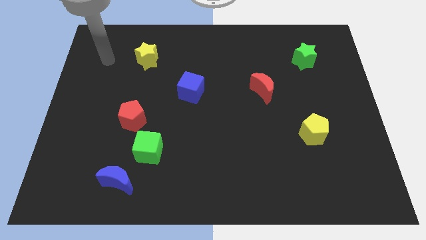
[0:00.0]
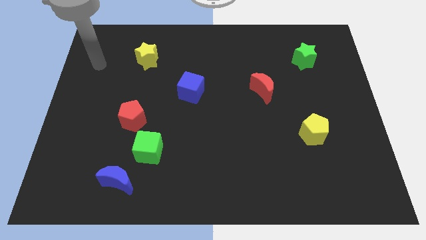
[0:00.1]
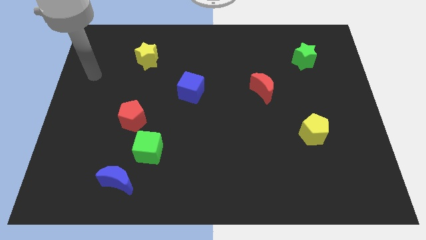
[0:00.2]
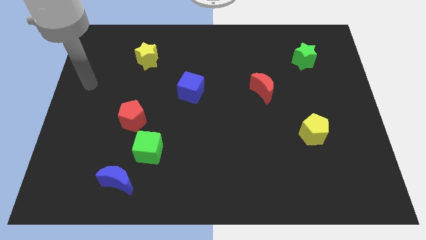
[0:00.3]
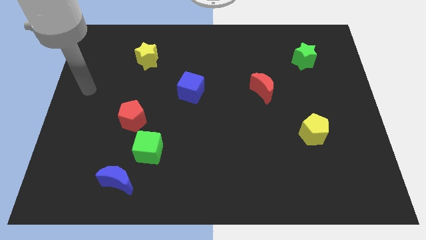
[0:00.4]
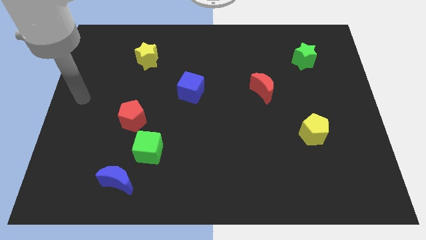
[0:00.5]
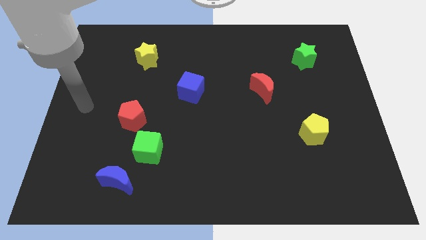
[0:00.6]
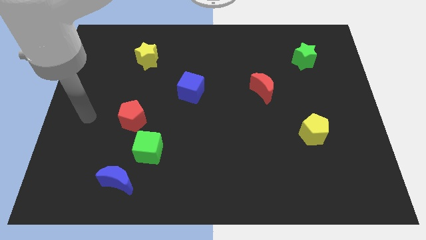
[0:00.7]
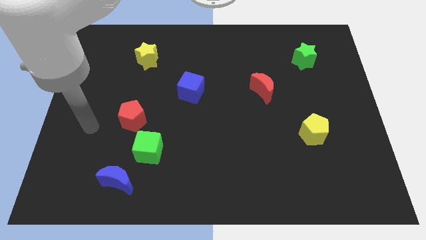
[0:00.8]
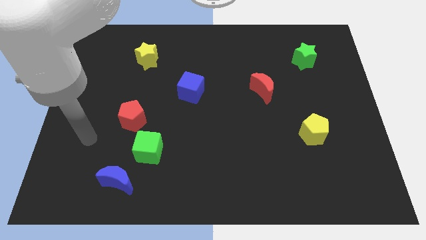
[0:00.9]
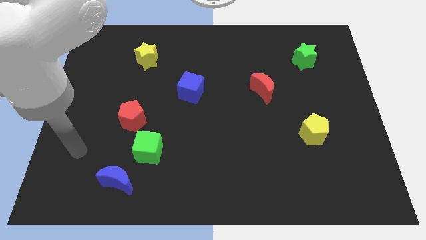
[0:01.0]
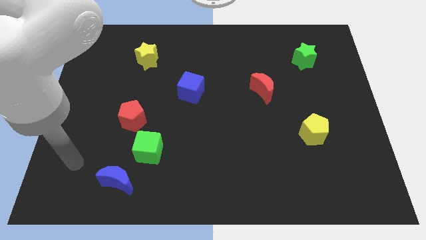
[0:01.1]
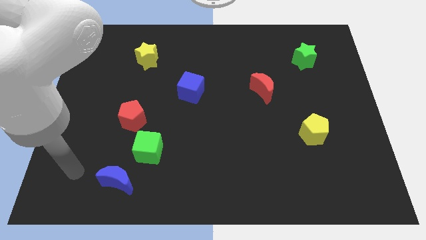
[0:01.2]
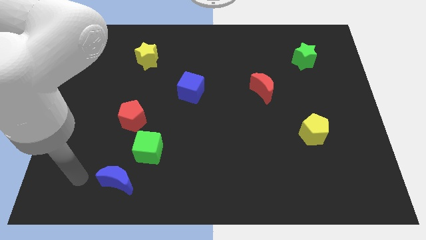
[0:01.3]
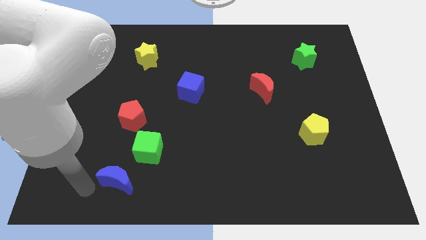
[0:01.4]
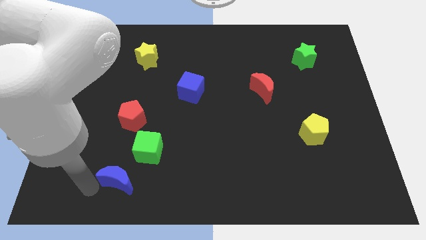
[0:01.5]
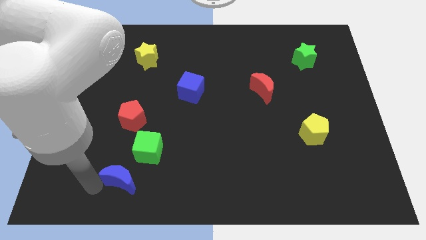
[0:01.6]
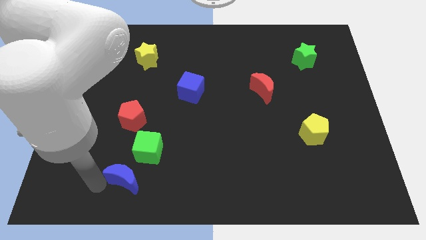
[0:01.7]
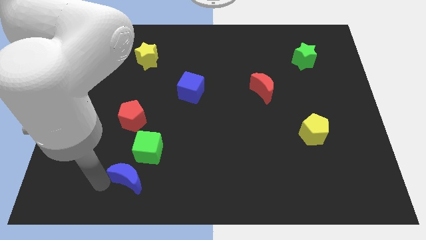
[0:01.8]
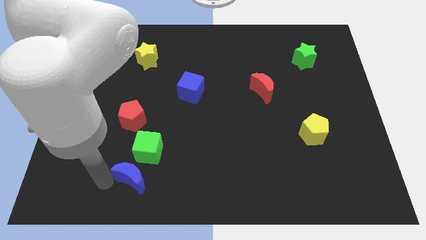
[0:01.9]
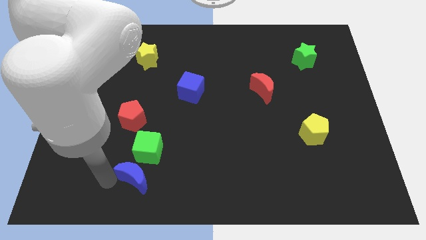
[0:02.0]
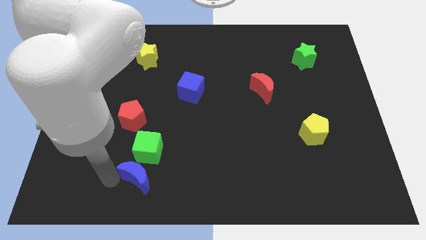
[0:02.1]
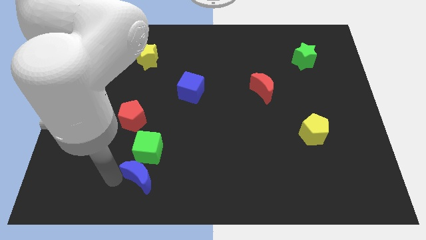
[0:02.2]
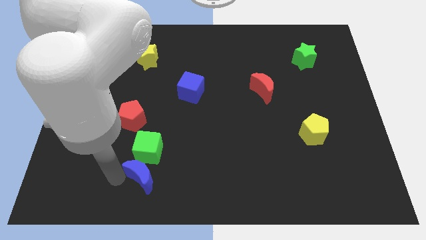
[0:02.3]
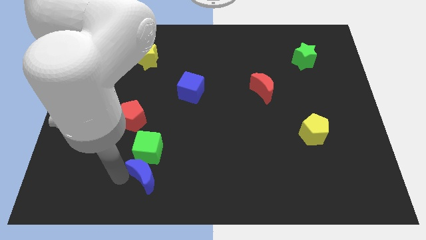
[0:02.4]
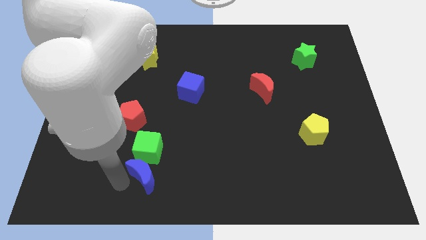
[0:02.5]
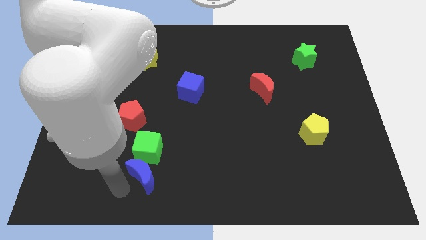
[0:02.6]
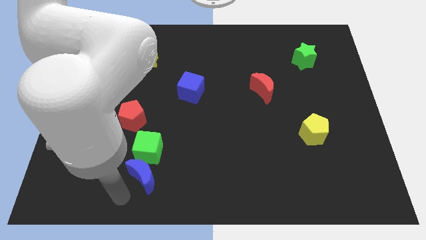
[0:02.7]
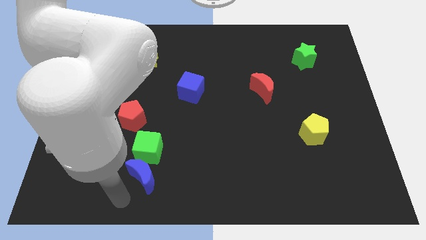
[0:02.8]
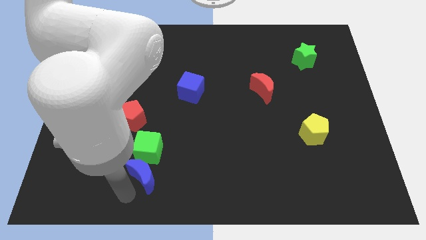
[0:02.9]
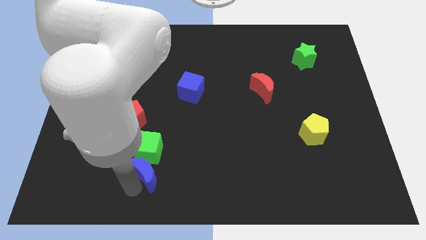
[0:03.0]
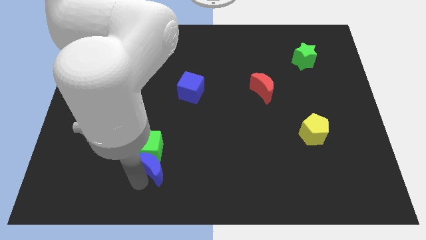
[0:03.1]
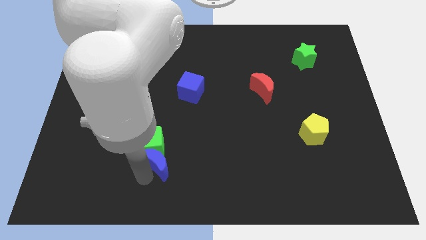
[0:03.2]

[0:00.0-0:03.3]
slide the blue moon slightly diagonally up and right

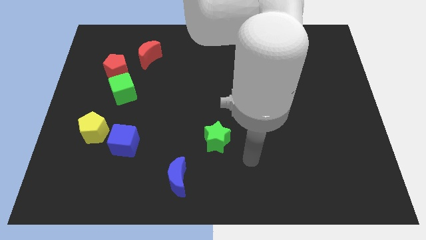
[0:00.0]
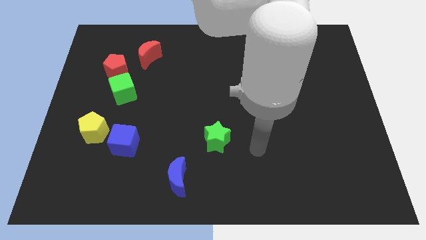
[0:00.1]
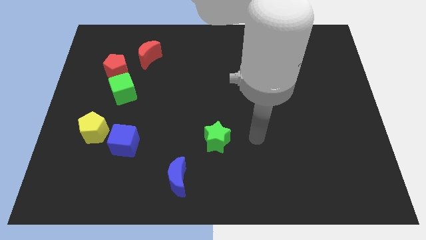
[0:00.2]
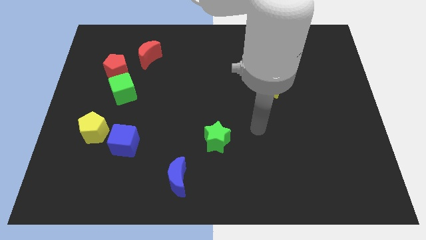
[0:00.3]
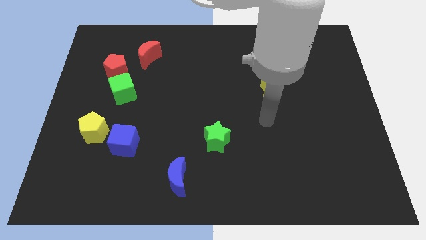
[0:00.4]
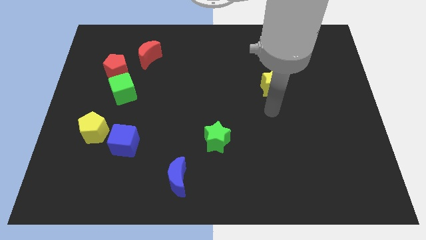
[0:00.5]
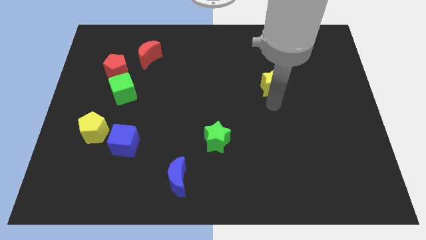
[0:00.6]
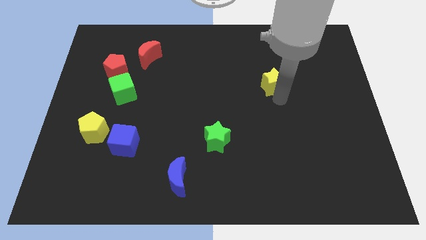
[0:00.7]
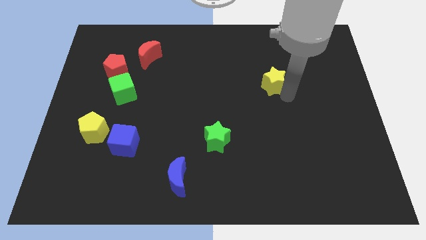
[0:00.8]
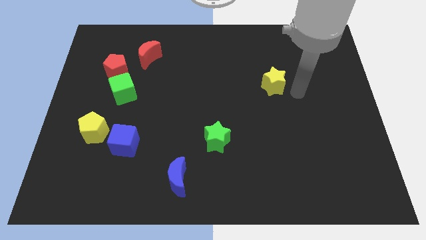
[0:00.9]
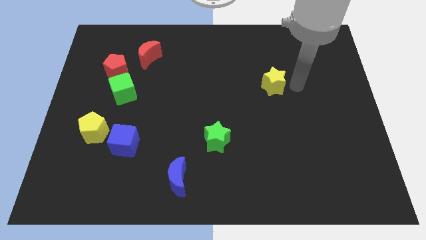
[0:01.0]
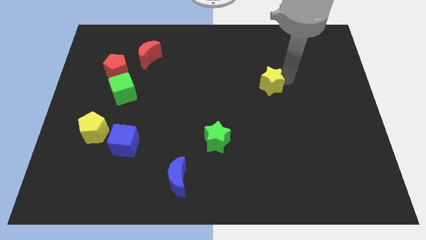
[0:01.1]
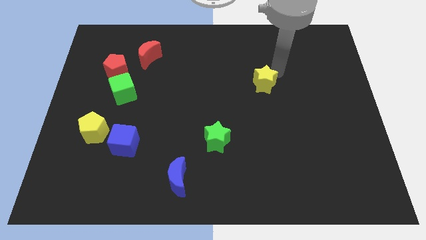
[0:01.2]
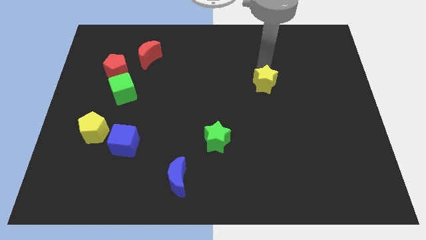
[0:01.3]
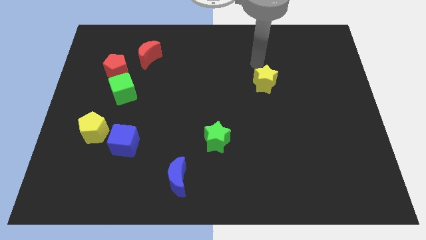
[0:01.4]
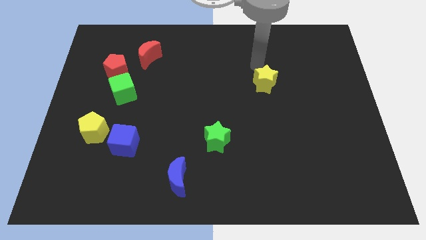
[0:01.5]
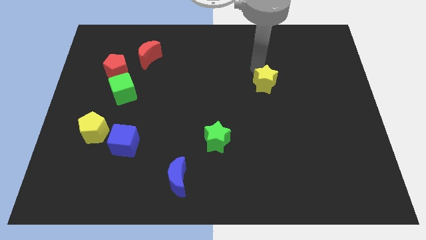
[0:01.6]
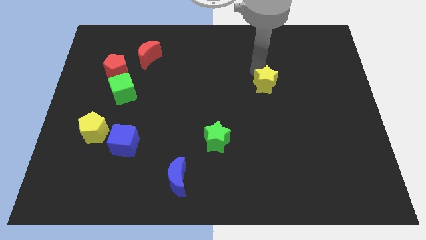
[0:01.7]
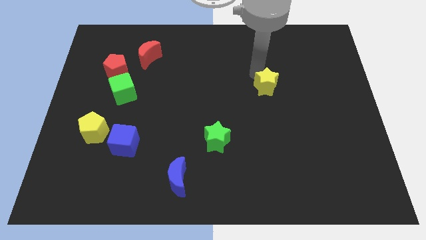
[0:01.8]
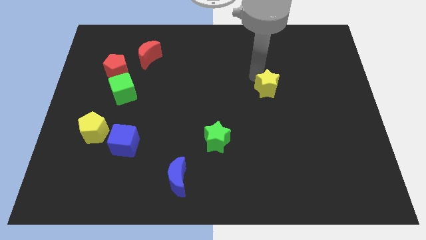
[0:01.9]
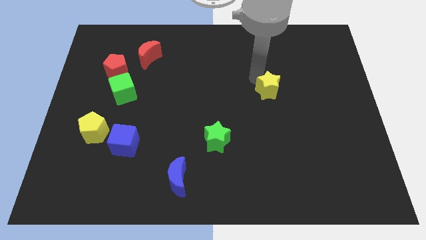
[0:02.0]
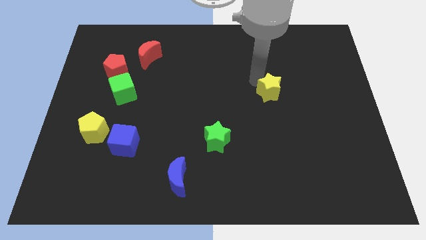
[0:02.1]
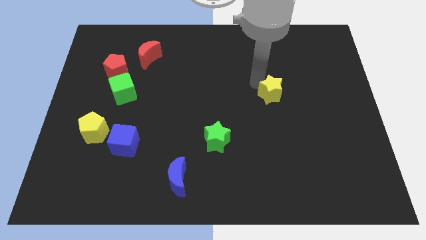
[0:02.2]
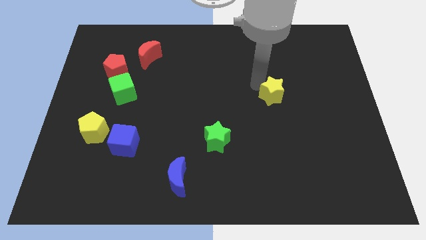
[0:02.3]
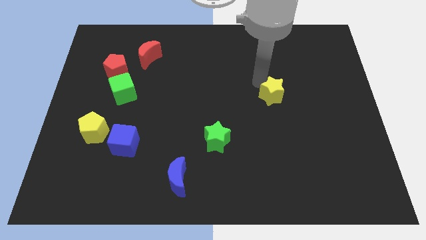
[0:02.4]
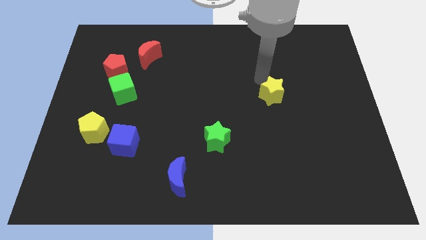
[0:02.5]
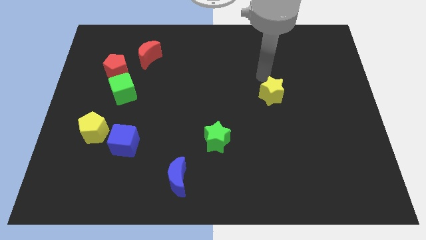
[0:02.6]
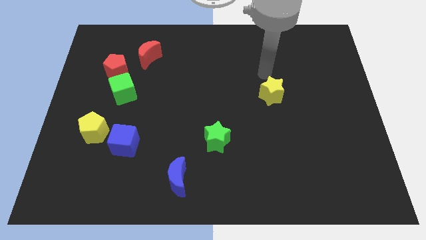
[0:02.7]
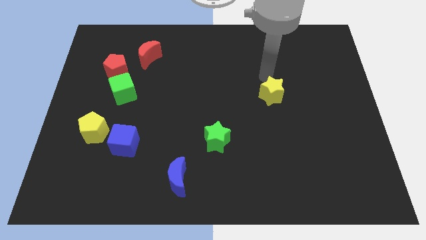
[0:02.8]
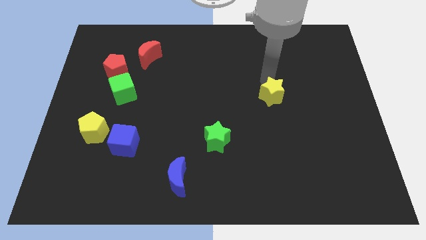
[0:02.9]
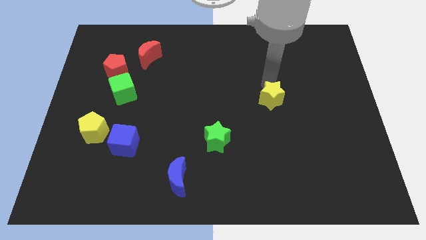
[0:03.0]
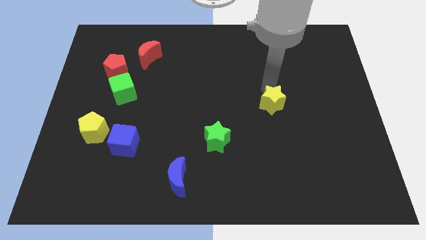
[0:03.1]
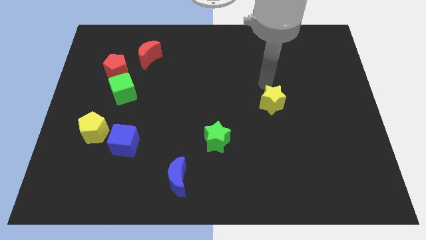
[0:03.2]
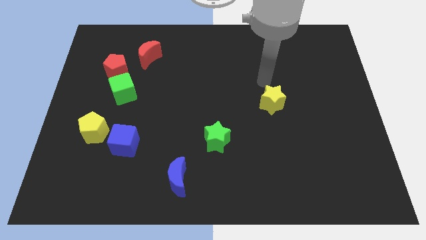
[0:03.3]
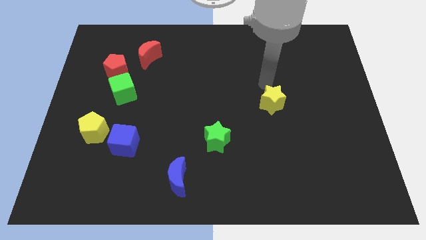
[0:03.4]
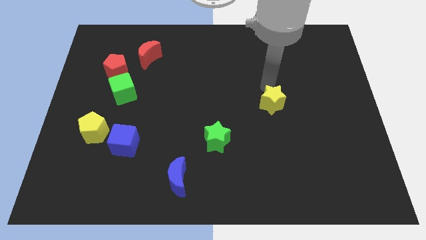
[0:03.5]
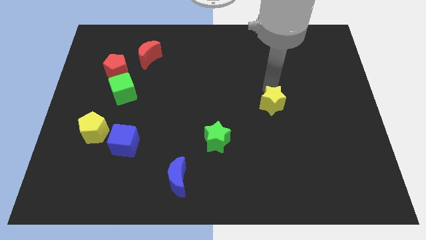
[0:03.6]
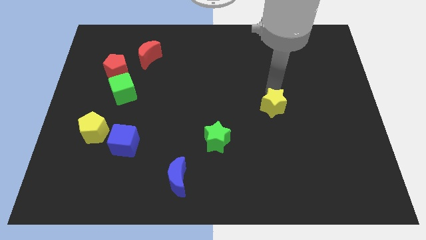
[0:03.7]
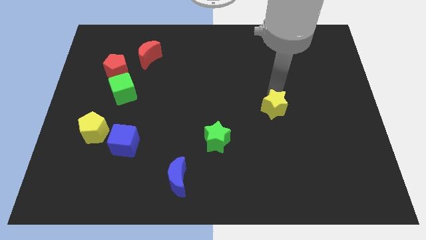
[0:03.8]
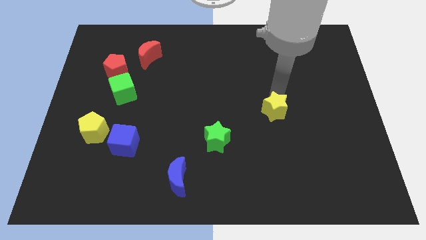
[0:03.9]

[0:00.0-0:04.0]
slightly slide the yellow star downwards

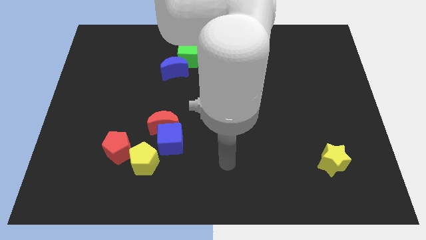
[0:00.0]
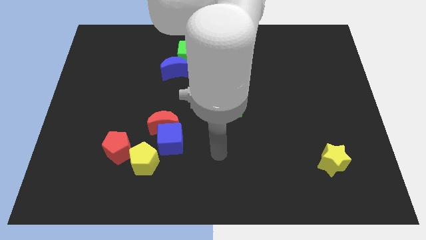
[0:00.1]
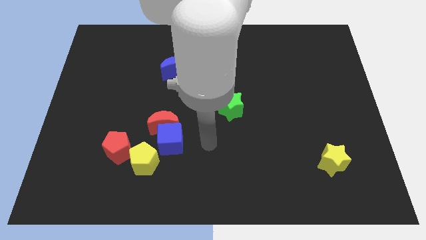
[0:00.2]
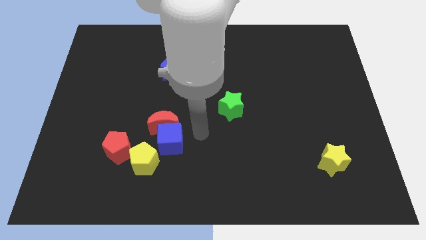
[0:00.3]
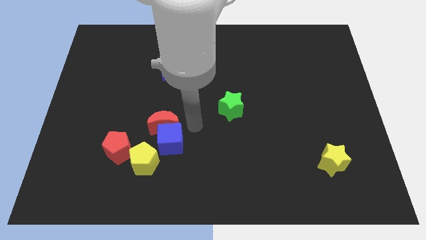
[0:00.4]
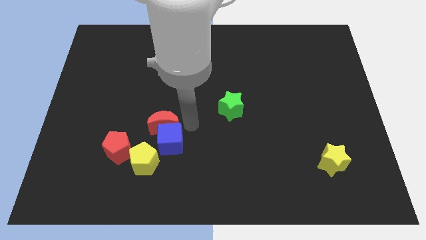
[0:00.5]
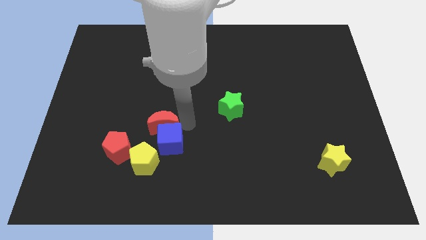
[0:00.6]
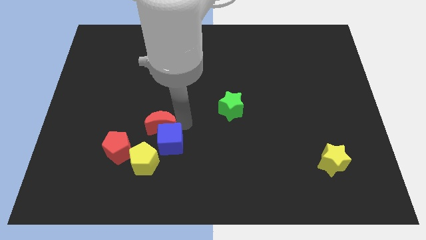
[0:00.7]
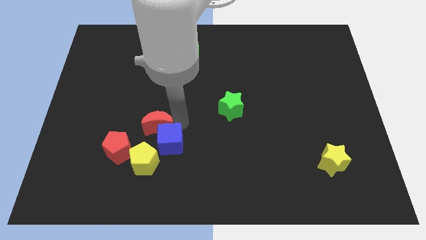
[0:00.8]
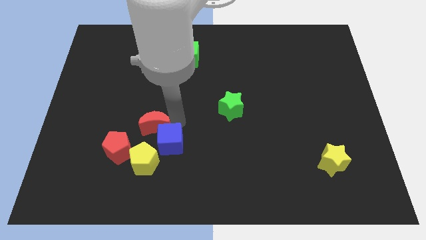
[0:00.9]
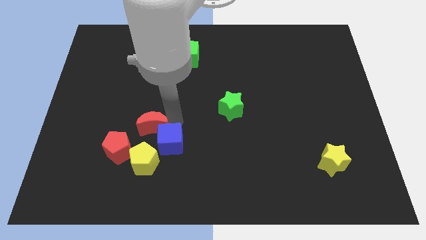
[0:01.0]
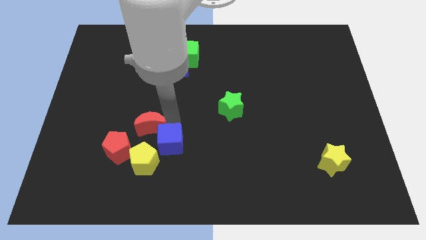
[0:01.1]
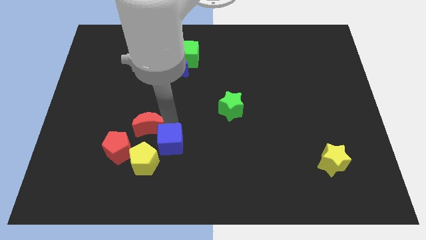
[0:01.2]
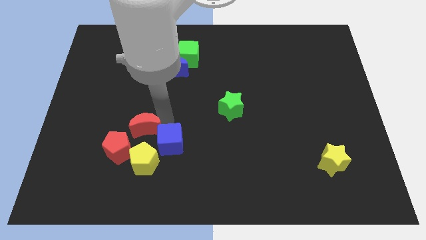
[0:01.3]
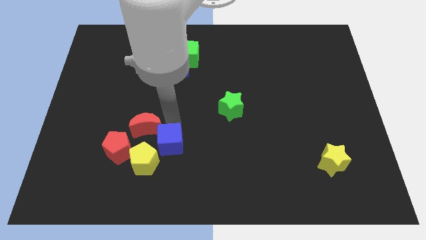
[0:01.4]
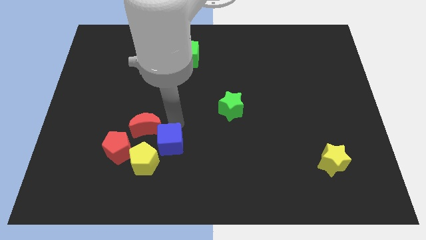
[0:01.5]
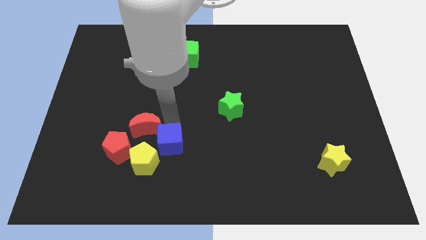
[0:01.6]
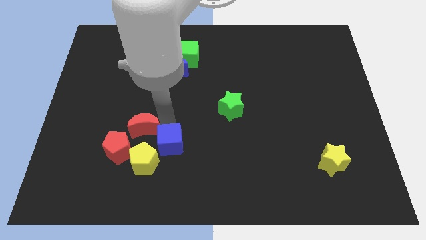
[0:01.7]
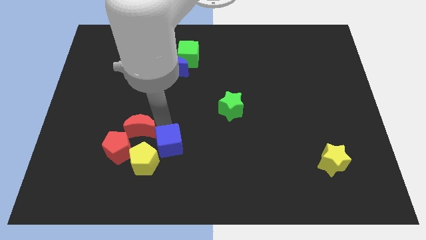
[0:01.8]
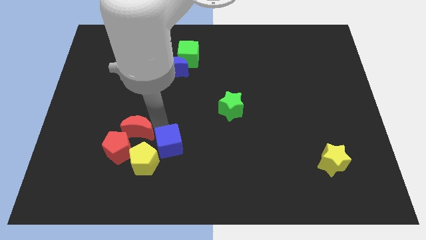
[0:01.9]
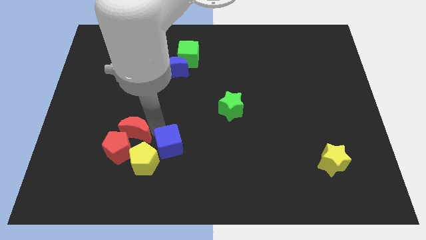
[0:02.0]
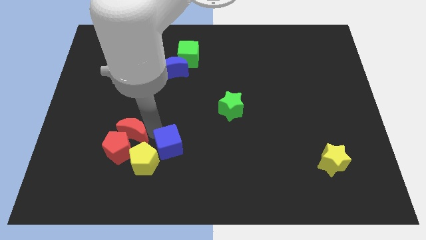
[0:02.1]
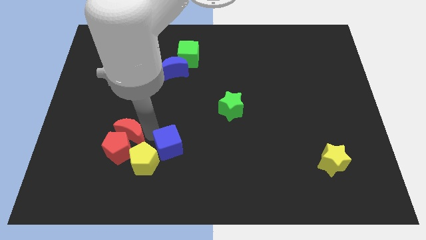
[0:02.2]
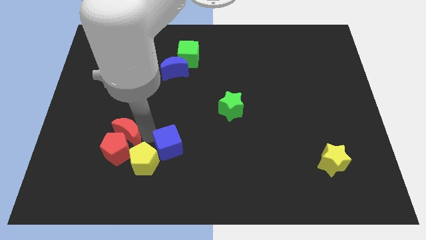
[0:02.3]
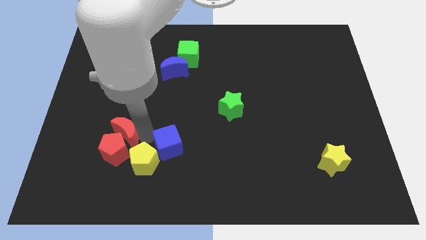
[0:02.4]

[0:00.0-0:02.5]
slightly move the red moon diagonally down and to the left
